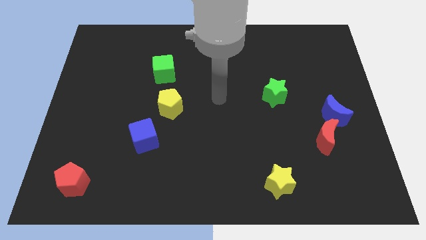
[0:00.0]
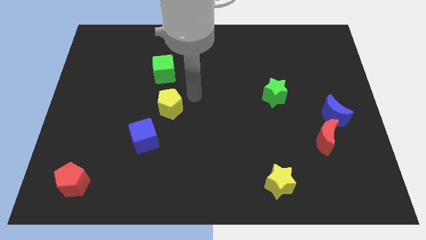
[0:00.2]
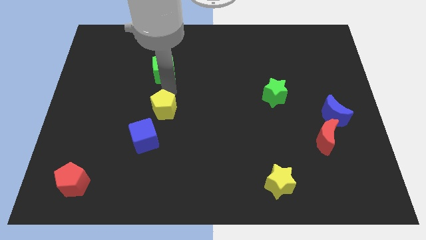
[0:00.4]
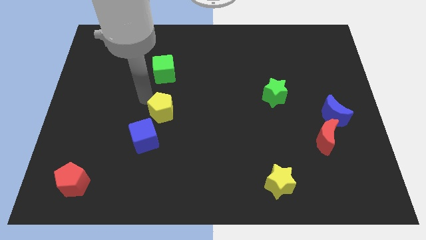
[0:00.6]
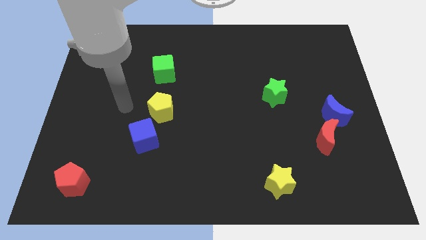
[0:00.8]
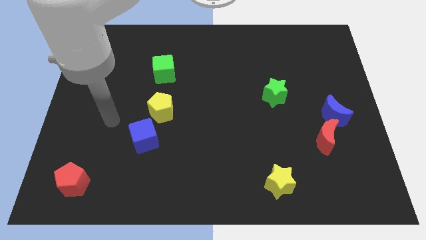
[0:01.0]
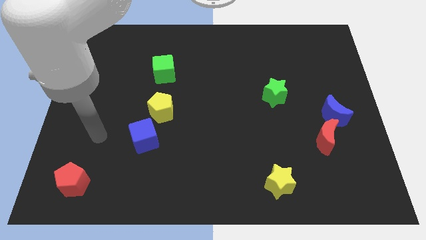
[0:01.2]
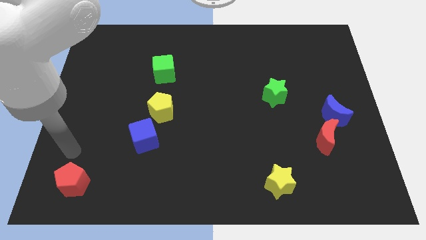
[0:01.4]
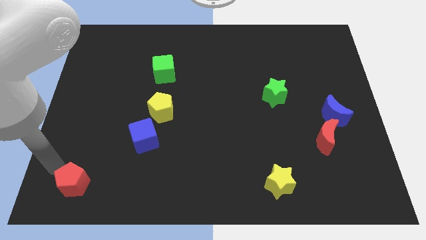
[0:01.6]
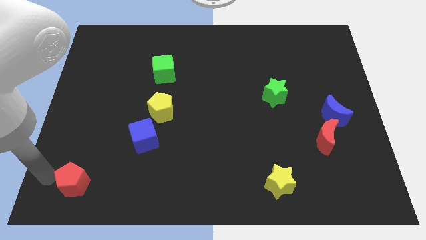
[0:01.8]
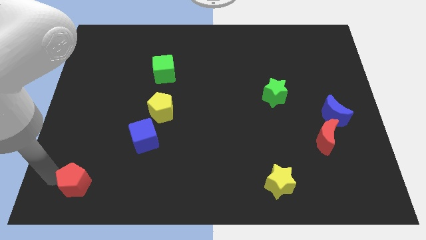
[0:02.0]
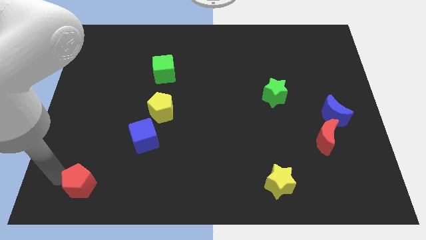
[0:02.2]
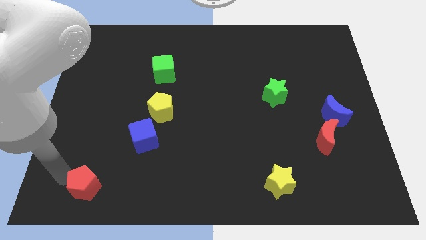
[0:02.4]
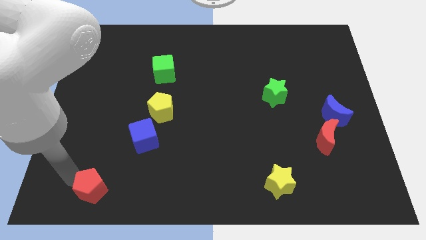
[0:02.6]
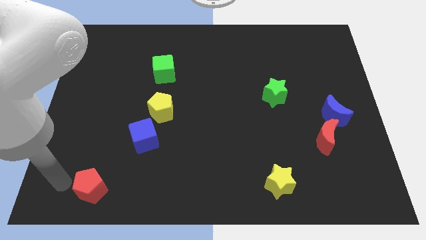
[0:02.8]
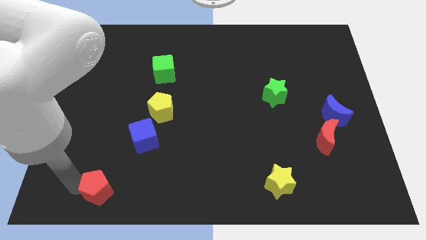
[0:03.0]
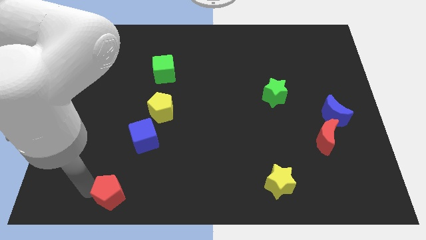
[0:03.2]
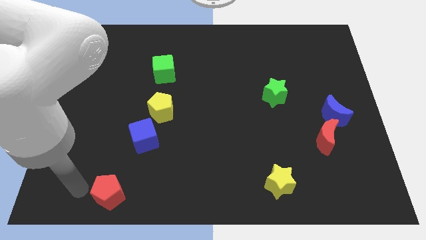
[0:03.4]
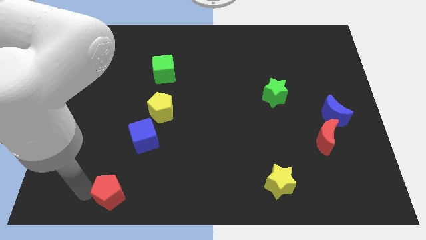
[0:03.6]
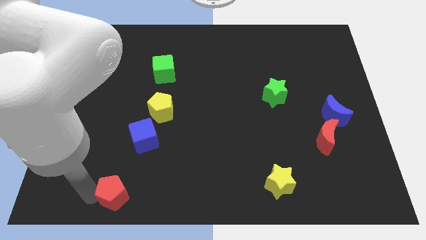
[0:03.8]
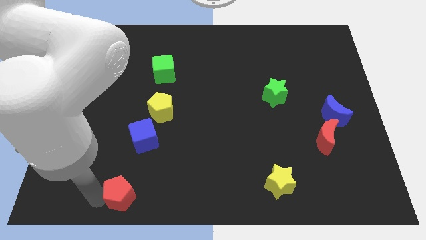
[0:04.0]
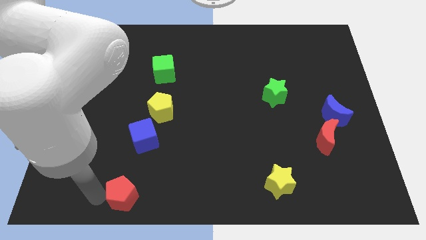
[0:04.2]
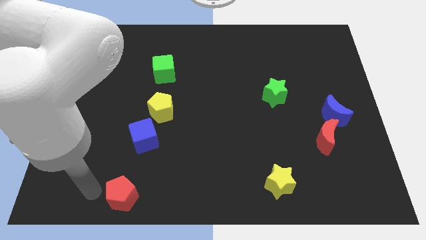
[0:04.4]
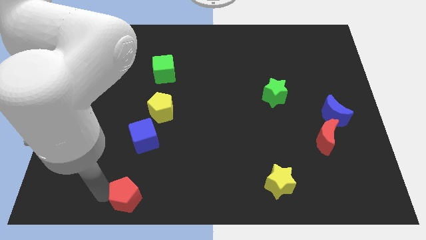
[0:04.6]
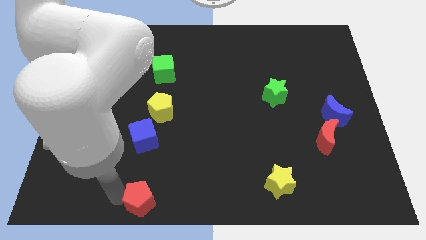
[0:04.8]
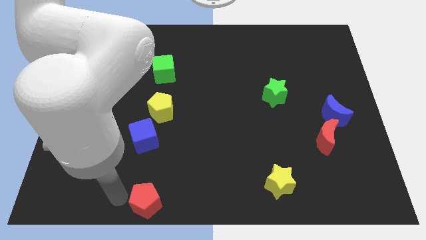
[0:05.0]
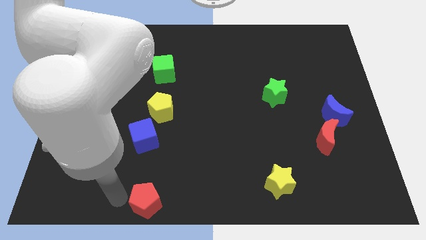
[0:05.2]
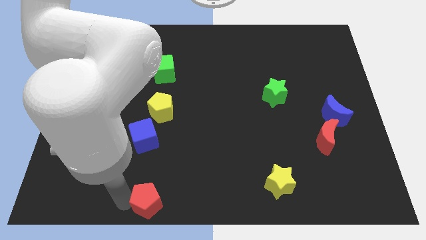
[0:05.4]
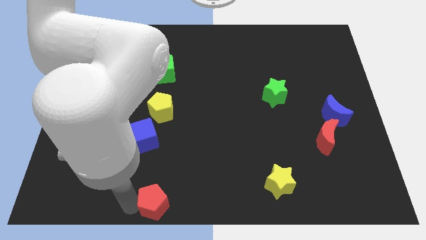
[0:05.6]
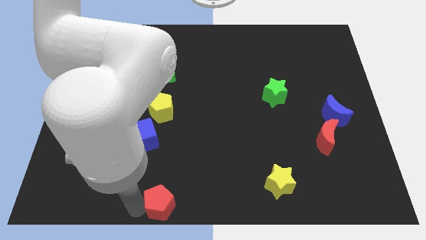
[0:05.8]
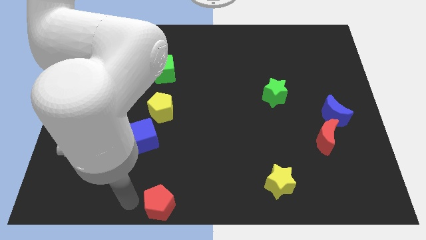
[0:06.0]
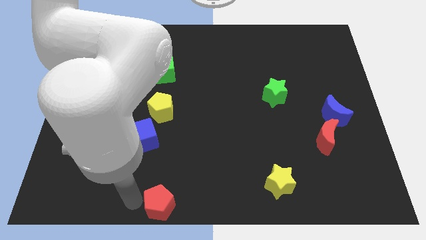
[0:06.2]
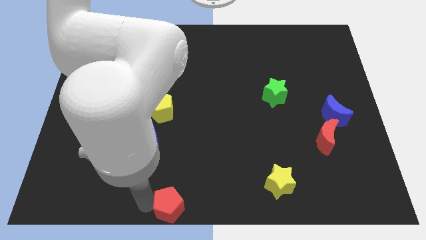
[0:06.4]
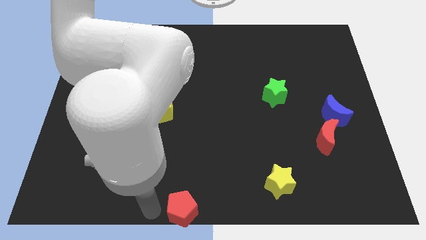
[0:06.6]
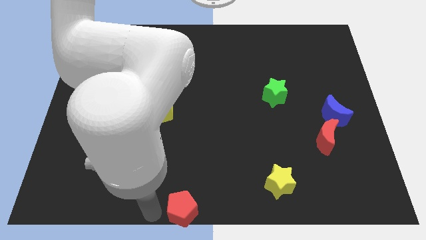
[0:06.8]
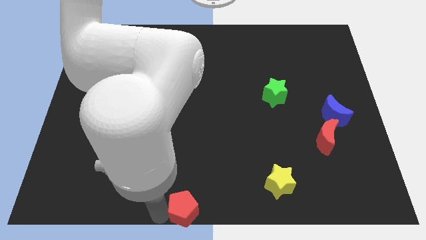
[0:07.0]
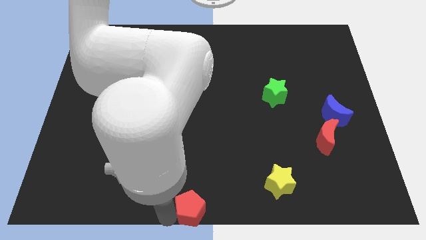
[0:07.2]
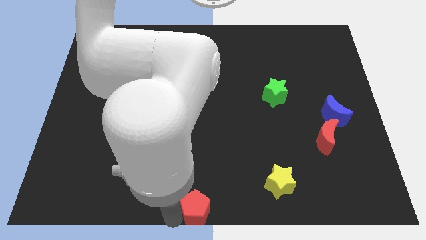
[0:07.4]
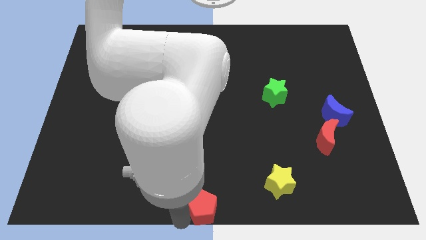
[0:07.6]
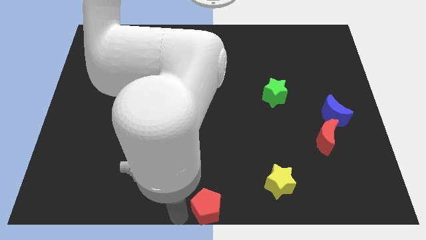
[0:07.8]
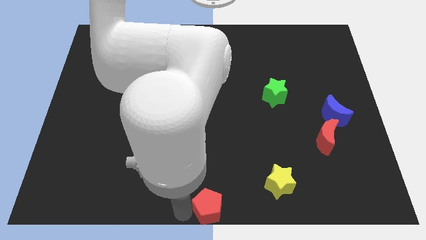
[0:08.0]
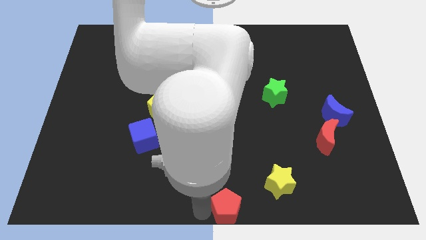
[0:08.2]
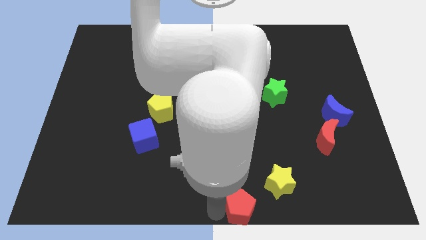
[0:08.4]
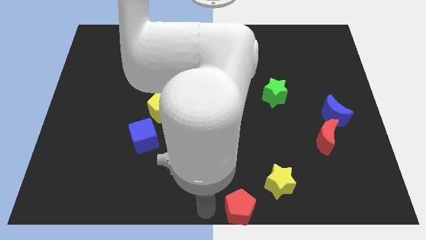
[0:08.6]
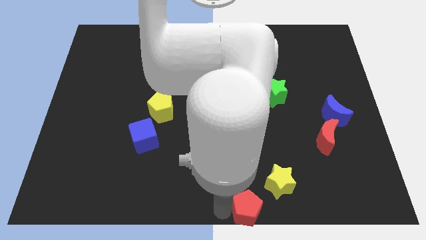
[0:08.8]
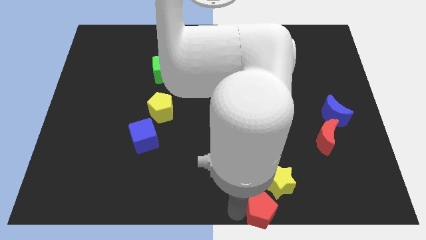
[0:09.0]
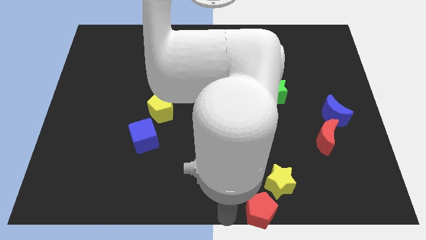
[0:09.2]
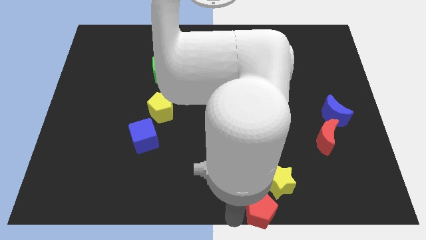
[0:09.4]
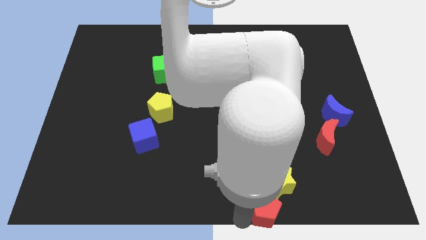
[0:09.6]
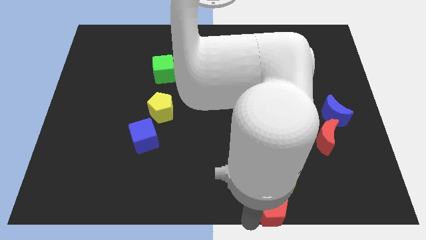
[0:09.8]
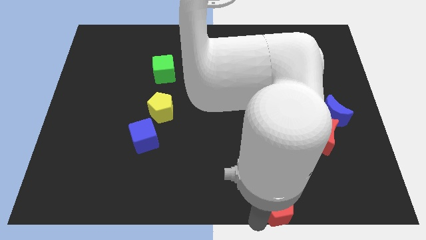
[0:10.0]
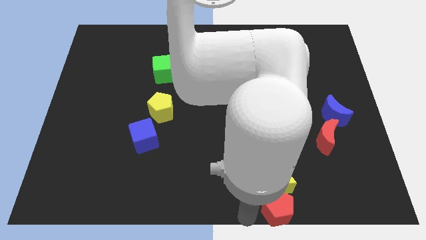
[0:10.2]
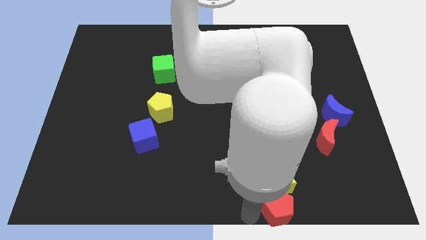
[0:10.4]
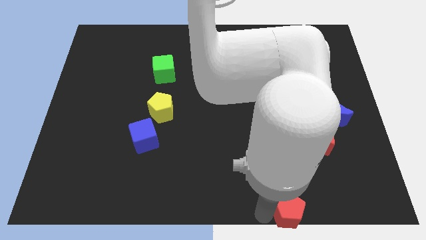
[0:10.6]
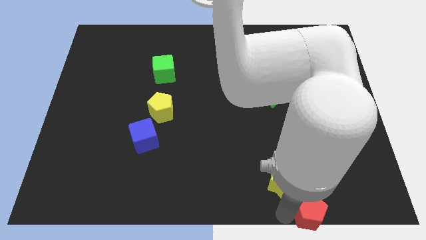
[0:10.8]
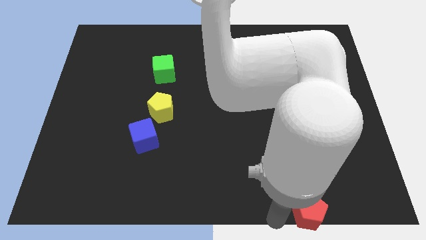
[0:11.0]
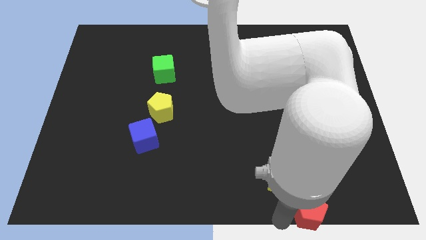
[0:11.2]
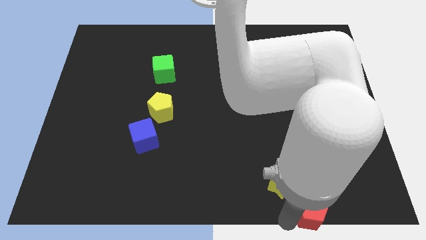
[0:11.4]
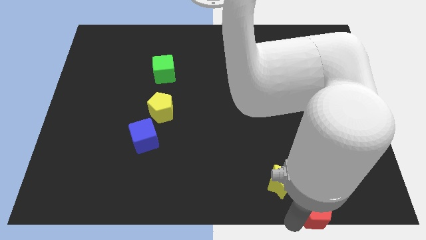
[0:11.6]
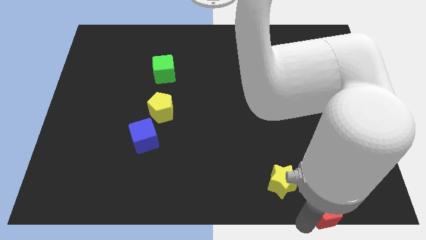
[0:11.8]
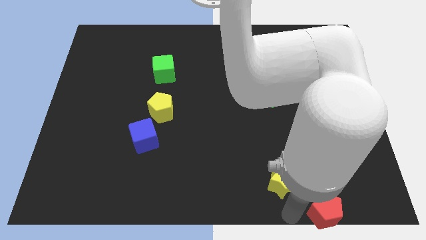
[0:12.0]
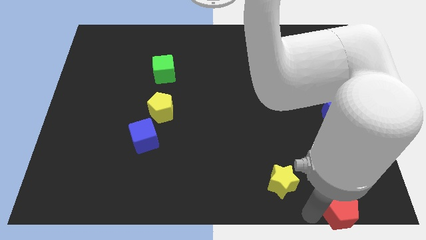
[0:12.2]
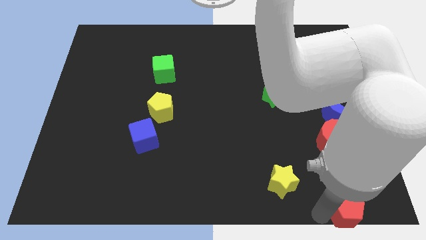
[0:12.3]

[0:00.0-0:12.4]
slide the red pentagon to the bottom right corner

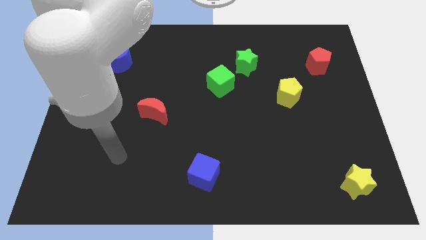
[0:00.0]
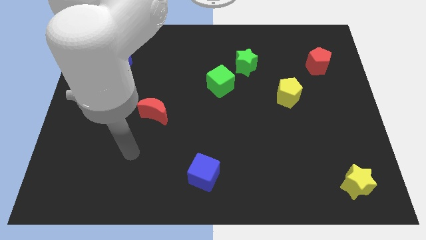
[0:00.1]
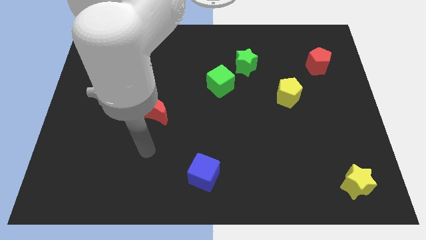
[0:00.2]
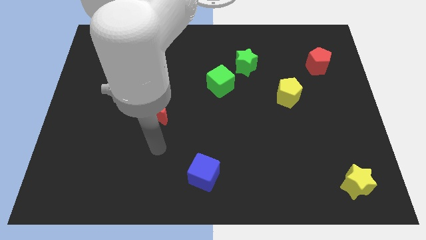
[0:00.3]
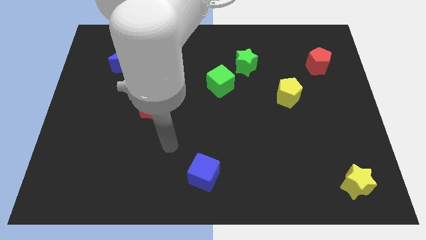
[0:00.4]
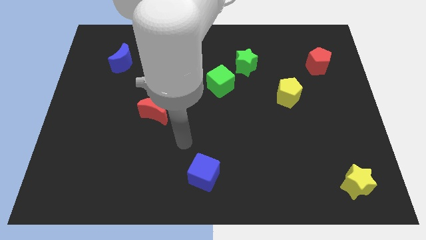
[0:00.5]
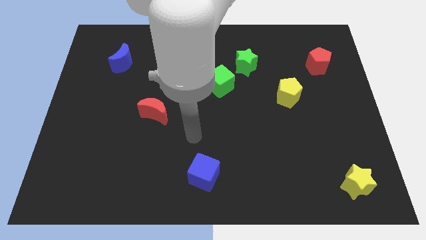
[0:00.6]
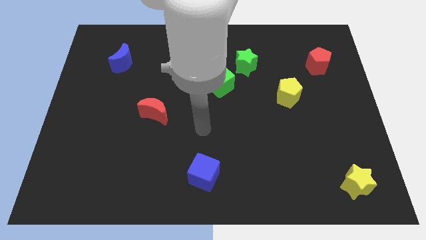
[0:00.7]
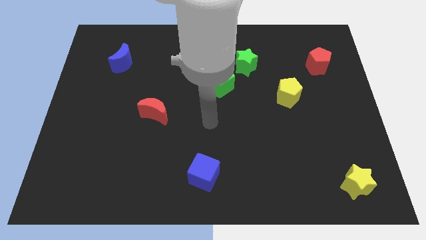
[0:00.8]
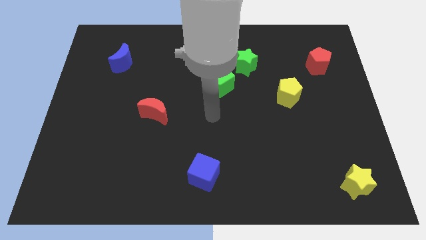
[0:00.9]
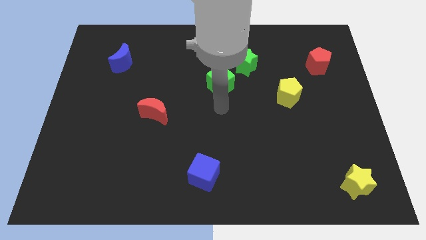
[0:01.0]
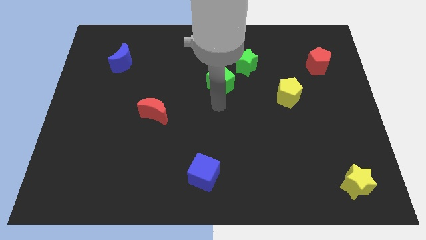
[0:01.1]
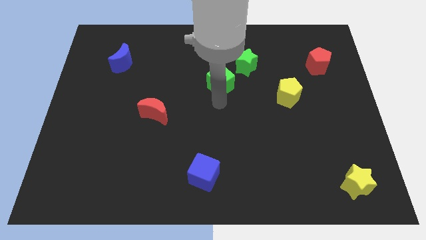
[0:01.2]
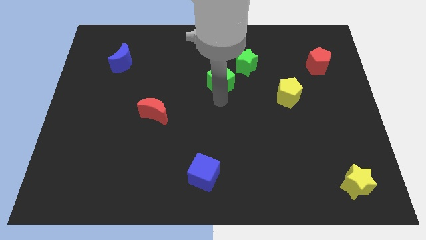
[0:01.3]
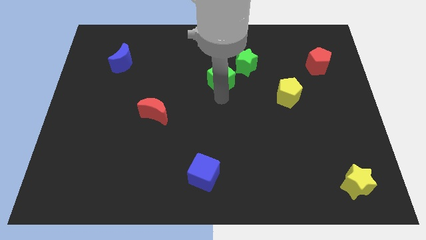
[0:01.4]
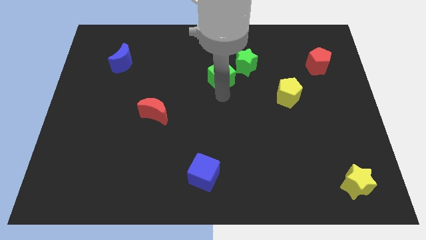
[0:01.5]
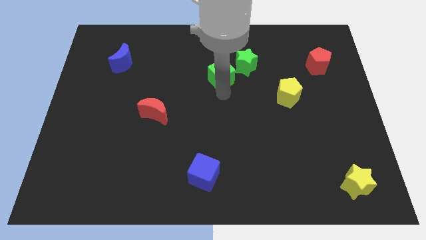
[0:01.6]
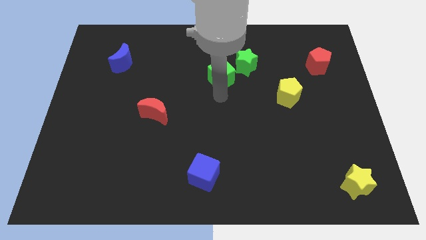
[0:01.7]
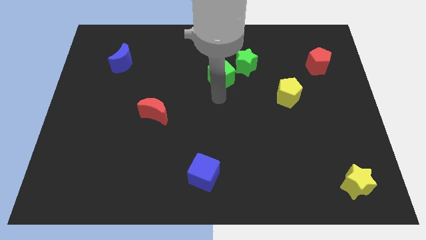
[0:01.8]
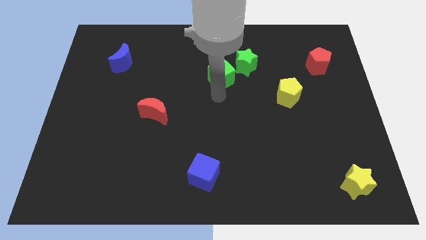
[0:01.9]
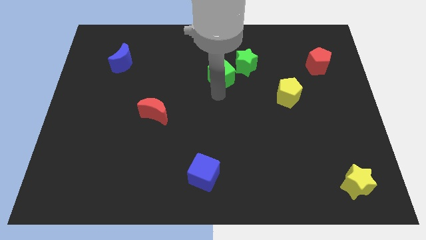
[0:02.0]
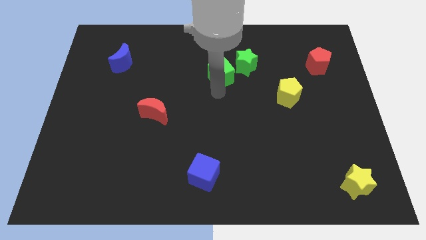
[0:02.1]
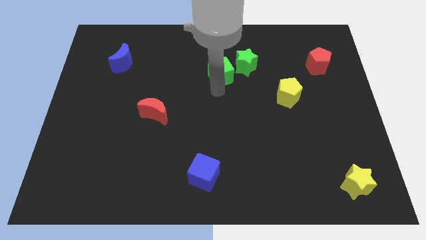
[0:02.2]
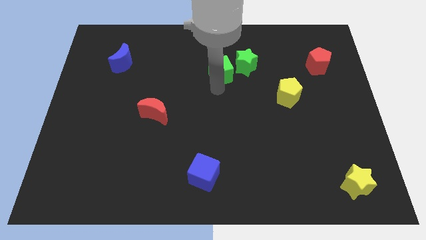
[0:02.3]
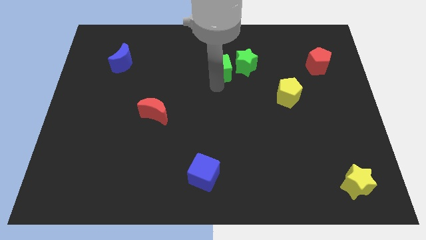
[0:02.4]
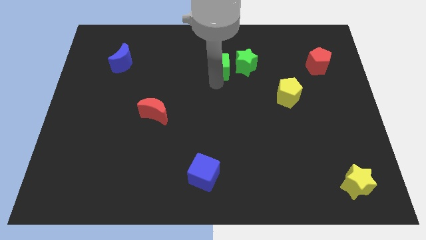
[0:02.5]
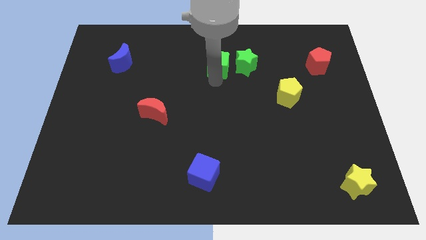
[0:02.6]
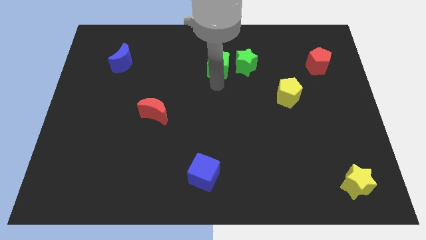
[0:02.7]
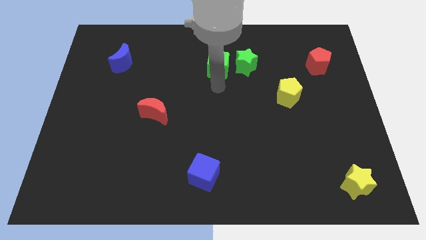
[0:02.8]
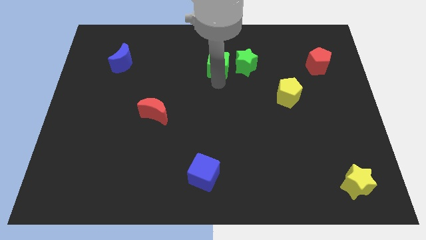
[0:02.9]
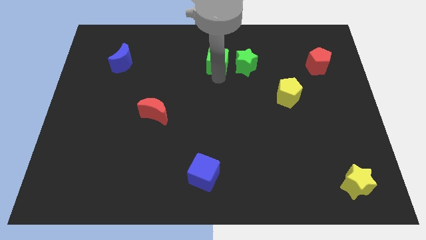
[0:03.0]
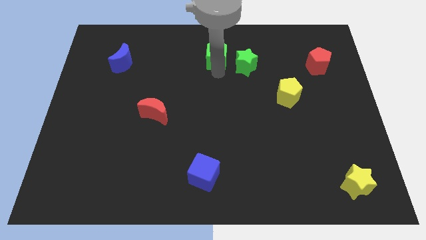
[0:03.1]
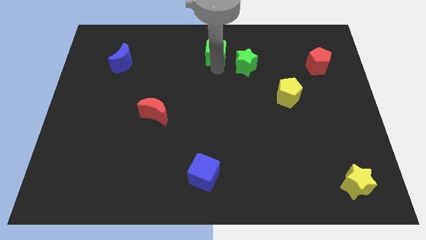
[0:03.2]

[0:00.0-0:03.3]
move the green cube to the top side
